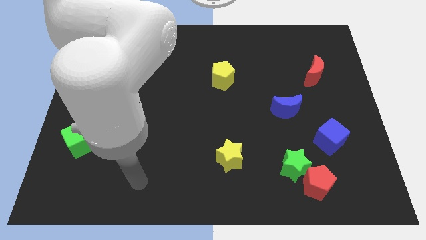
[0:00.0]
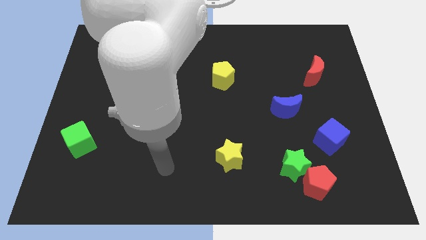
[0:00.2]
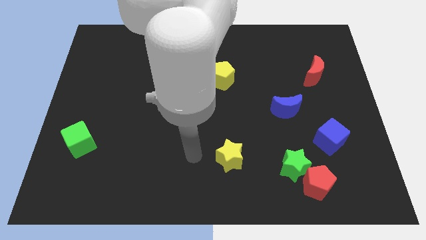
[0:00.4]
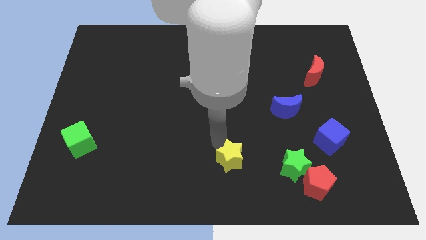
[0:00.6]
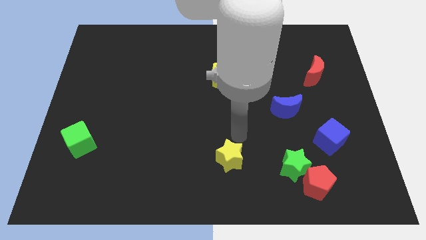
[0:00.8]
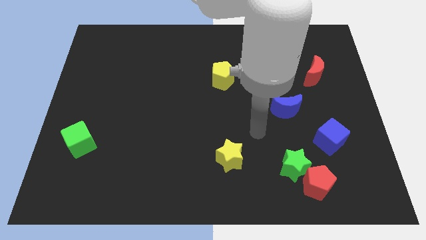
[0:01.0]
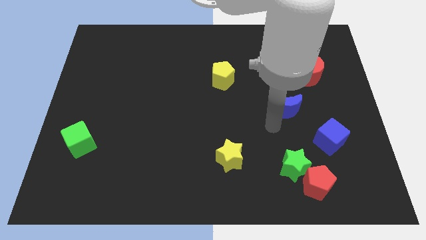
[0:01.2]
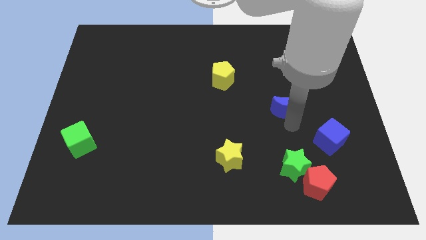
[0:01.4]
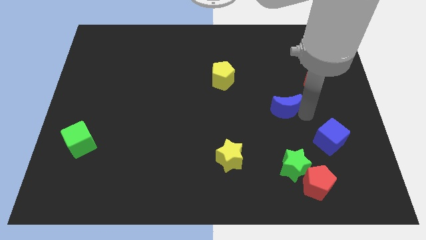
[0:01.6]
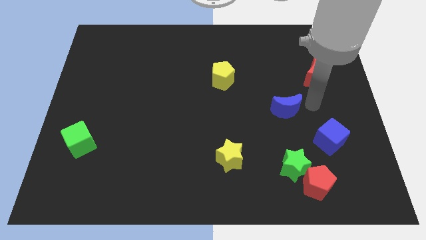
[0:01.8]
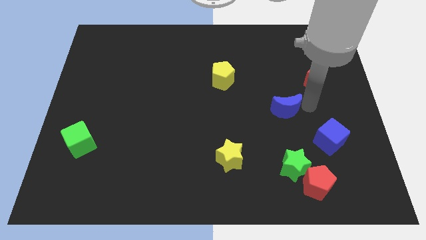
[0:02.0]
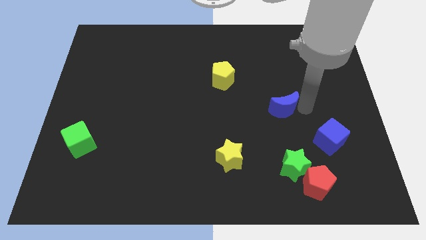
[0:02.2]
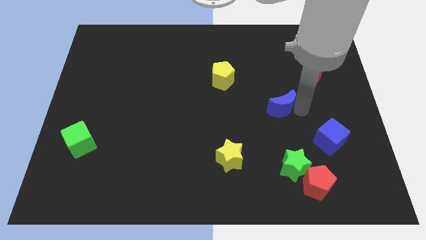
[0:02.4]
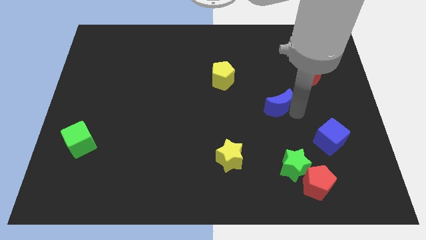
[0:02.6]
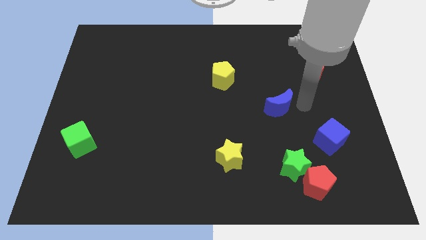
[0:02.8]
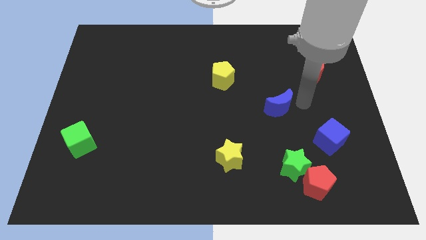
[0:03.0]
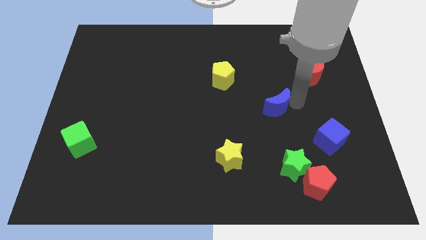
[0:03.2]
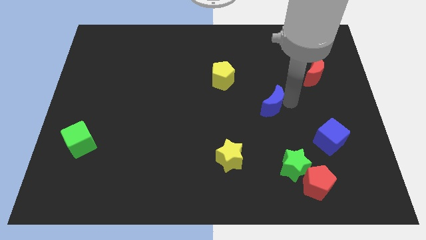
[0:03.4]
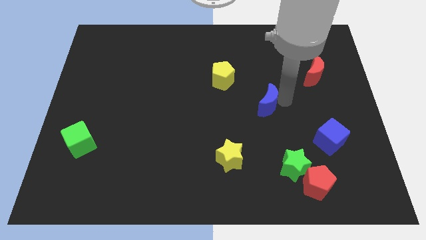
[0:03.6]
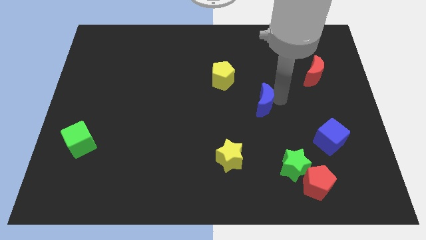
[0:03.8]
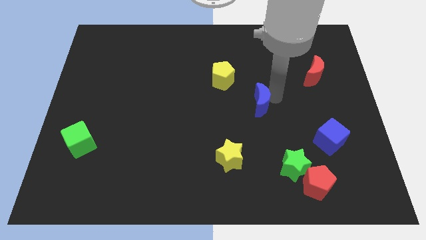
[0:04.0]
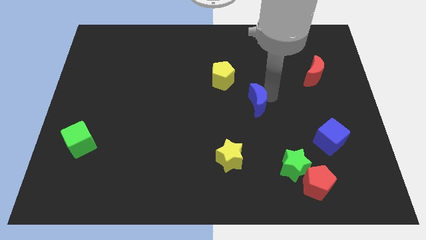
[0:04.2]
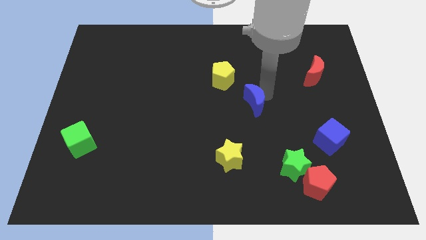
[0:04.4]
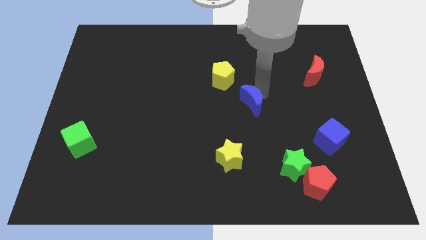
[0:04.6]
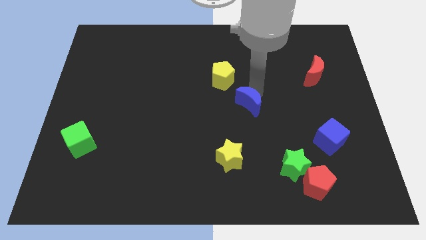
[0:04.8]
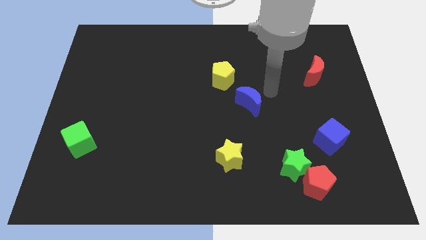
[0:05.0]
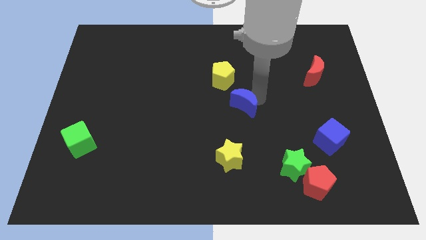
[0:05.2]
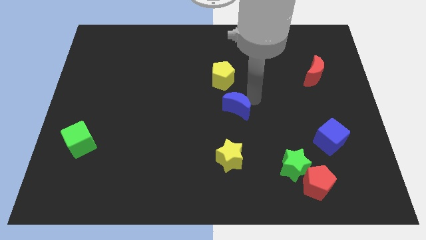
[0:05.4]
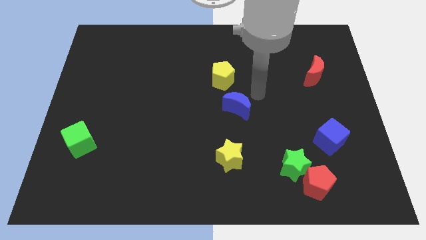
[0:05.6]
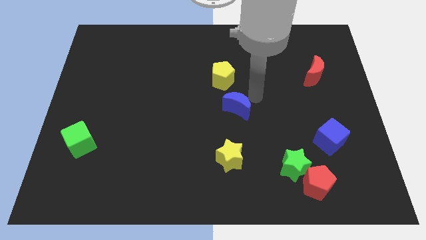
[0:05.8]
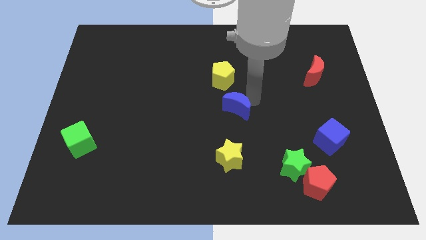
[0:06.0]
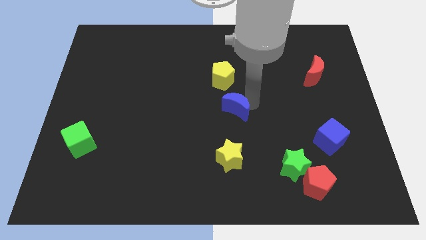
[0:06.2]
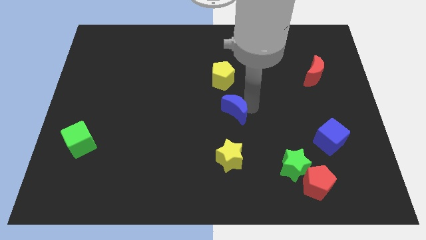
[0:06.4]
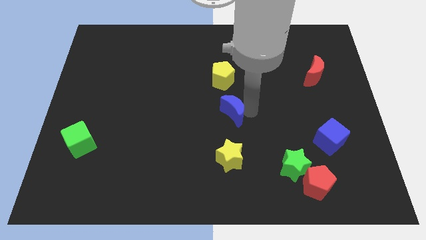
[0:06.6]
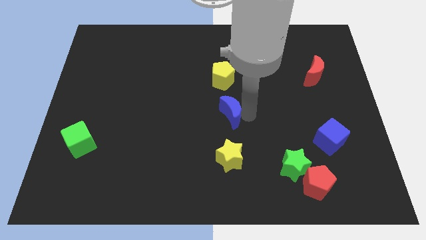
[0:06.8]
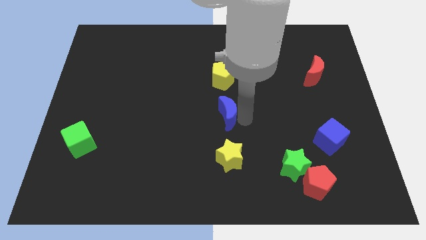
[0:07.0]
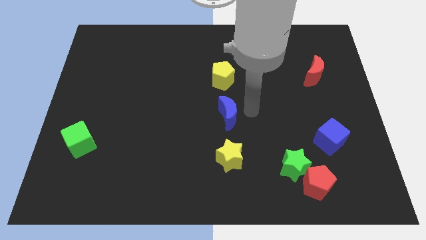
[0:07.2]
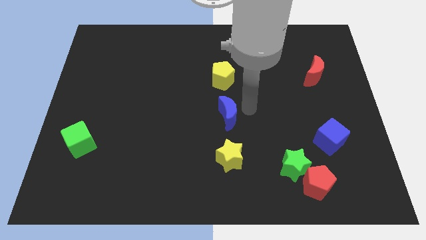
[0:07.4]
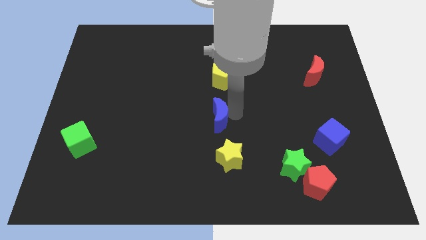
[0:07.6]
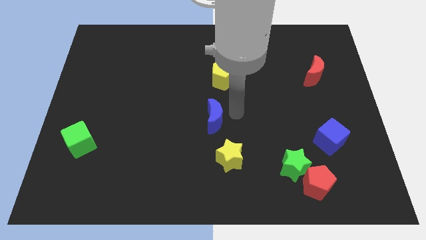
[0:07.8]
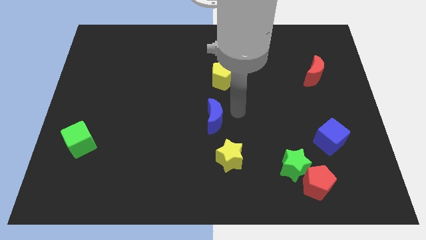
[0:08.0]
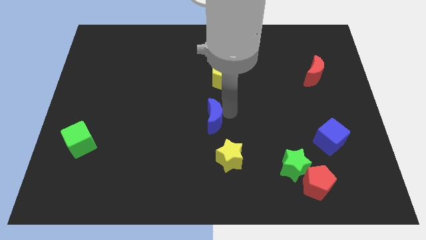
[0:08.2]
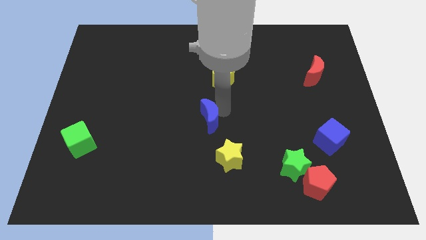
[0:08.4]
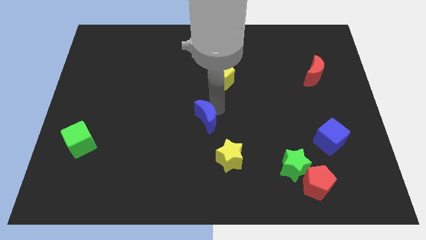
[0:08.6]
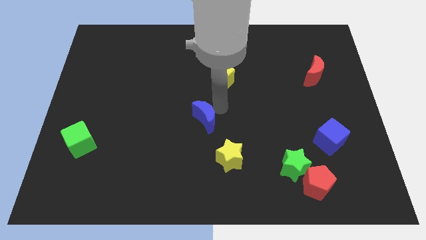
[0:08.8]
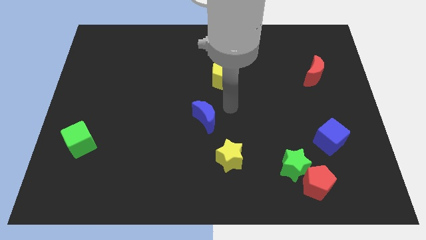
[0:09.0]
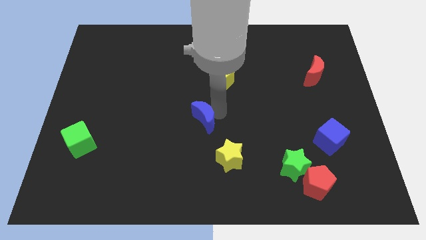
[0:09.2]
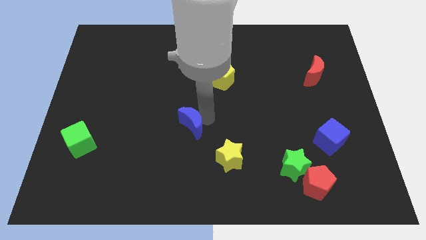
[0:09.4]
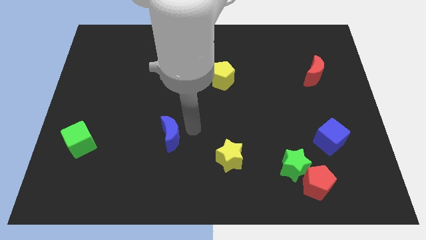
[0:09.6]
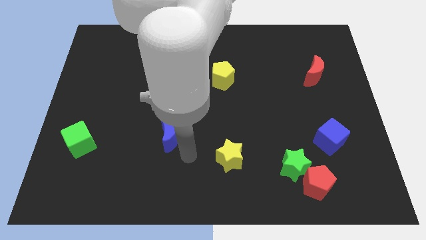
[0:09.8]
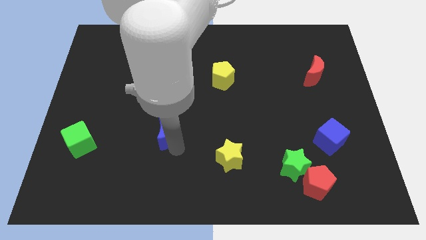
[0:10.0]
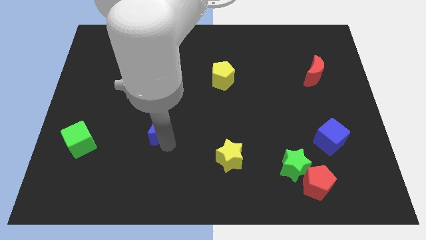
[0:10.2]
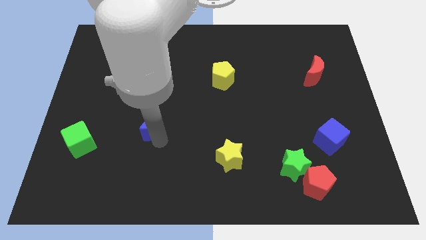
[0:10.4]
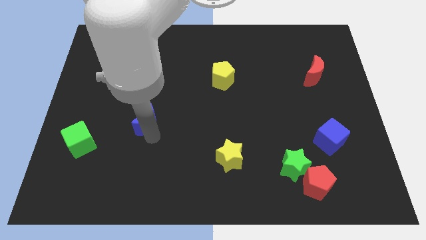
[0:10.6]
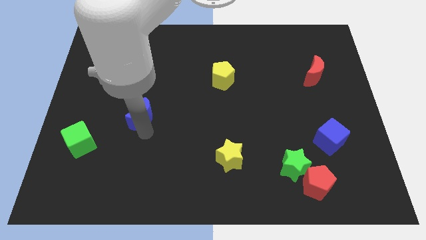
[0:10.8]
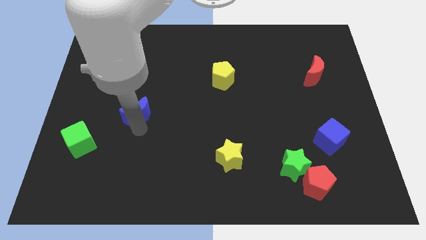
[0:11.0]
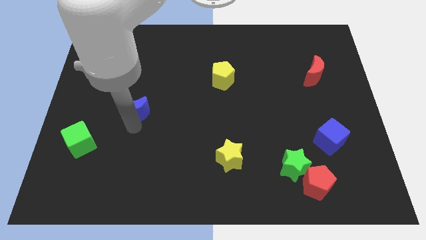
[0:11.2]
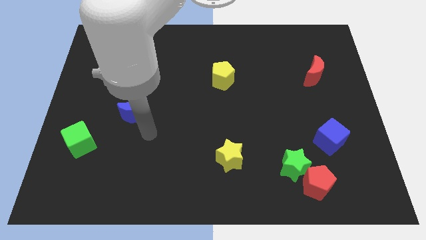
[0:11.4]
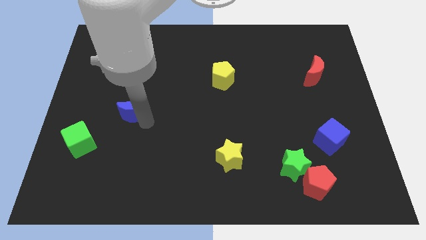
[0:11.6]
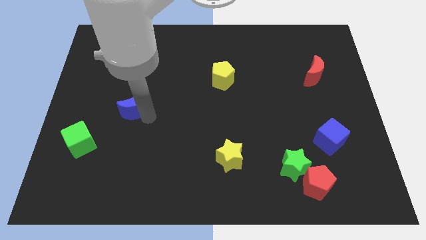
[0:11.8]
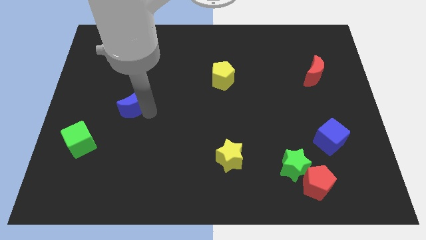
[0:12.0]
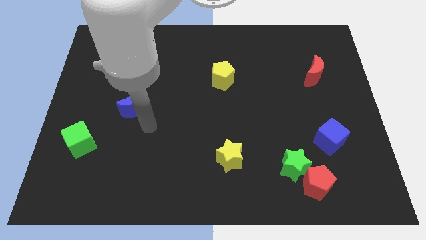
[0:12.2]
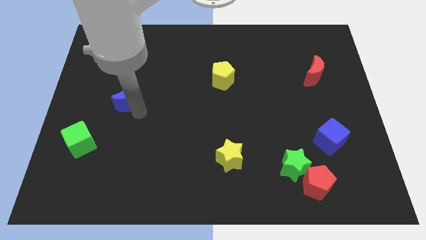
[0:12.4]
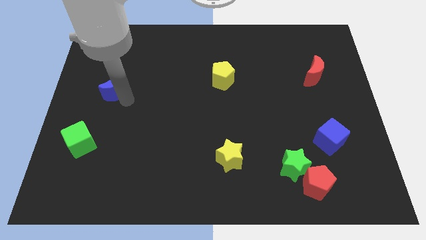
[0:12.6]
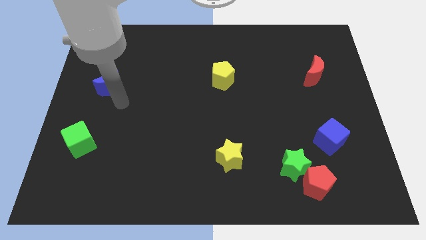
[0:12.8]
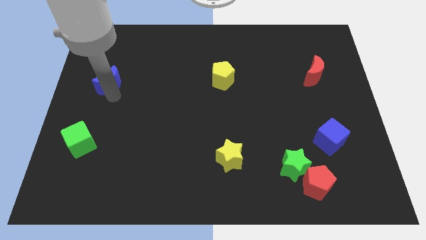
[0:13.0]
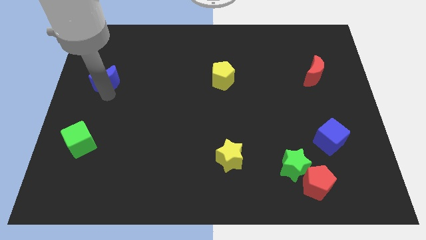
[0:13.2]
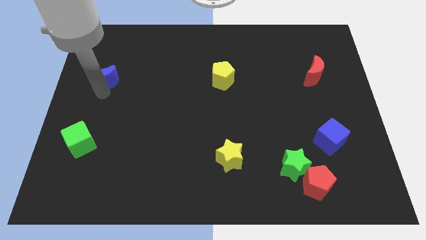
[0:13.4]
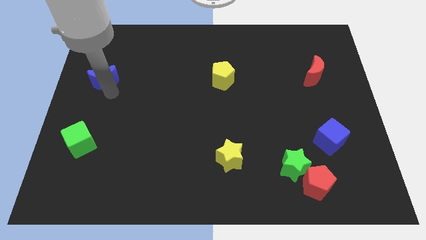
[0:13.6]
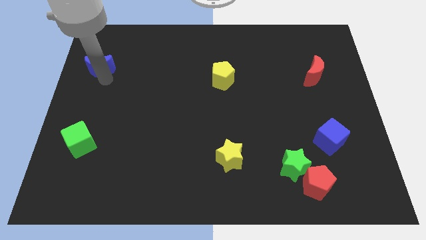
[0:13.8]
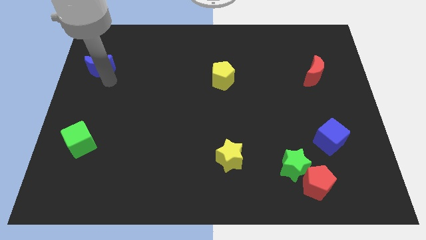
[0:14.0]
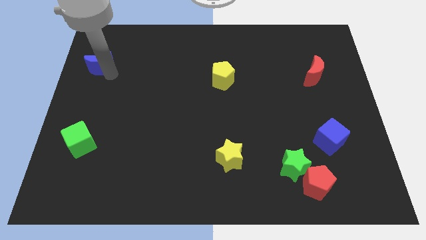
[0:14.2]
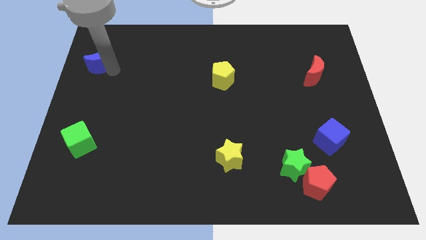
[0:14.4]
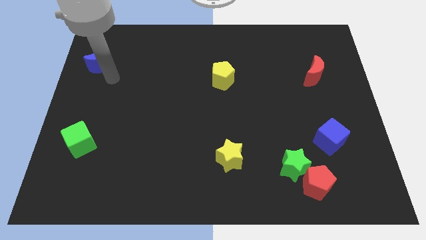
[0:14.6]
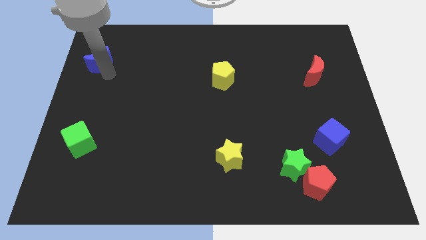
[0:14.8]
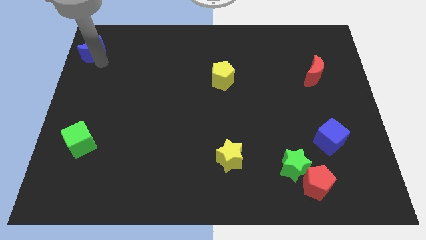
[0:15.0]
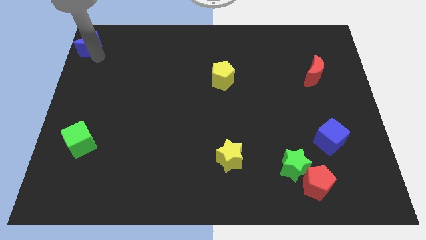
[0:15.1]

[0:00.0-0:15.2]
put the blue moon to the top left corner
